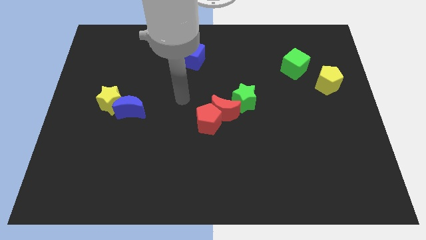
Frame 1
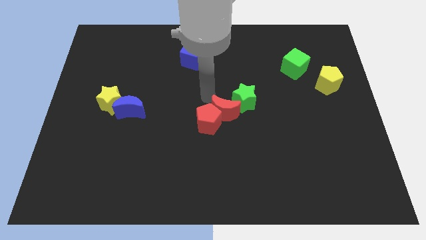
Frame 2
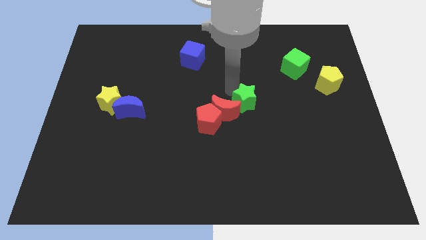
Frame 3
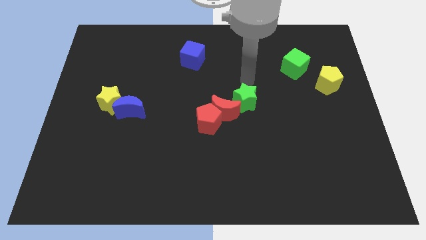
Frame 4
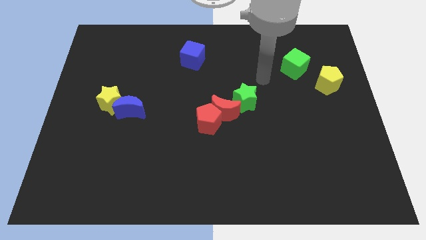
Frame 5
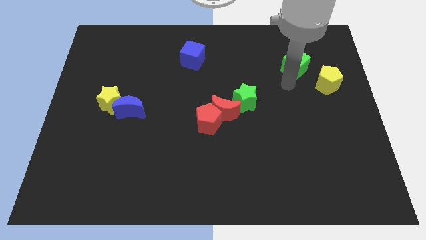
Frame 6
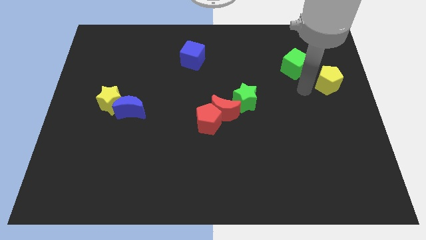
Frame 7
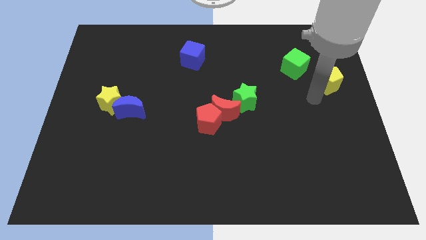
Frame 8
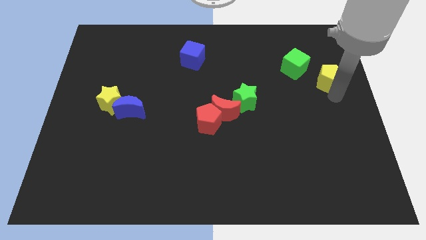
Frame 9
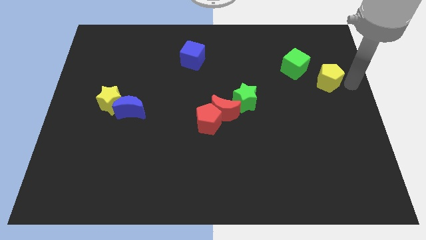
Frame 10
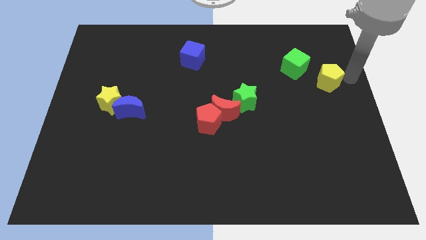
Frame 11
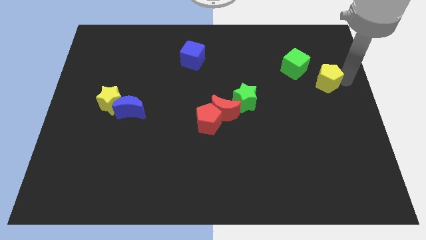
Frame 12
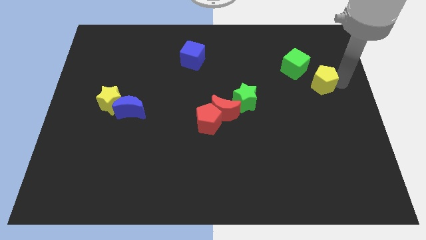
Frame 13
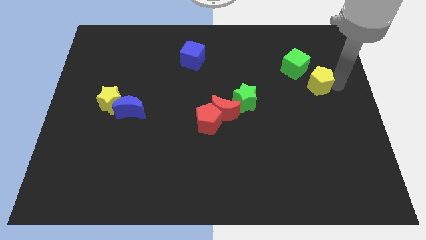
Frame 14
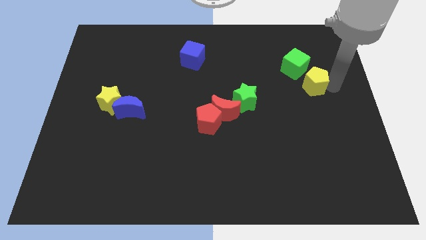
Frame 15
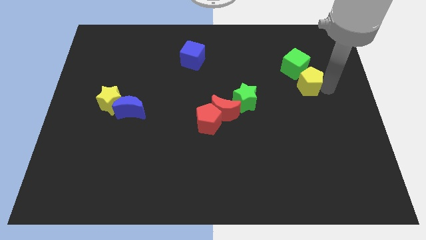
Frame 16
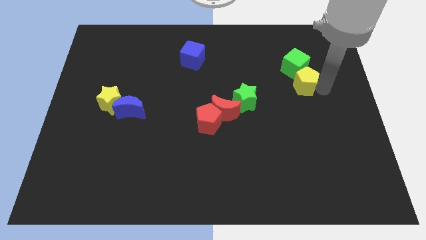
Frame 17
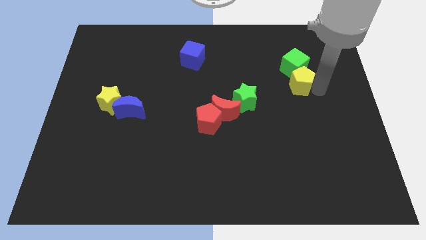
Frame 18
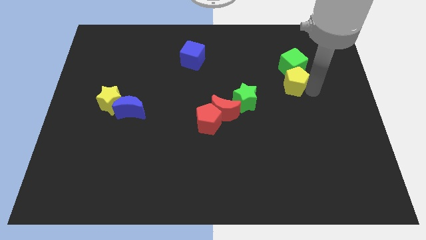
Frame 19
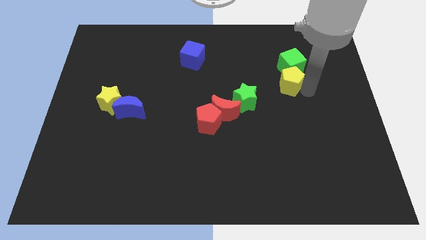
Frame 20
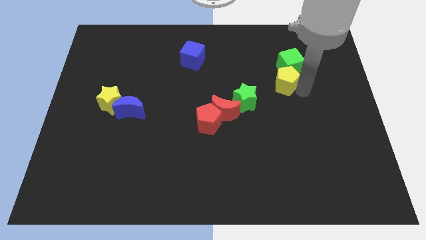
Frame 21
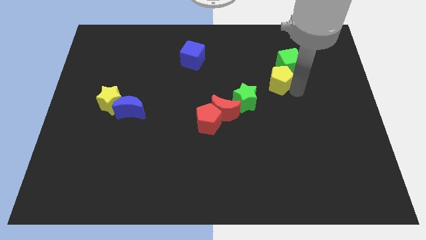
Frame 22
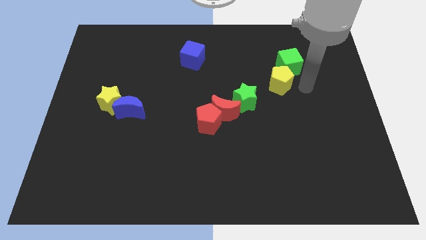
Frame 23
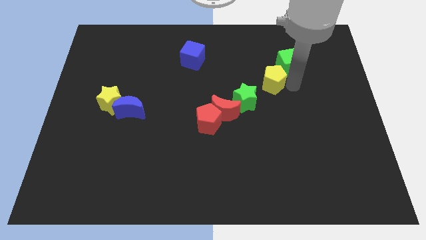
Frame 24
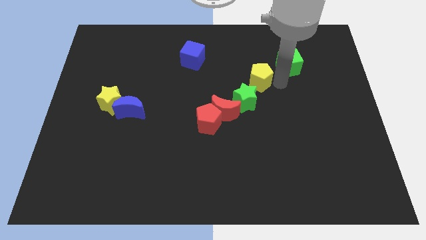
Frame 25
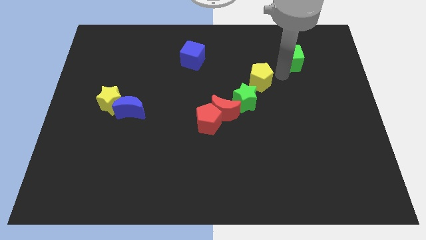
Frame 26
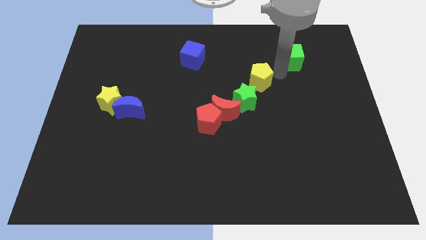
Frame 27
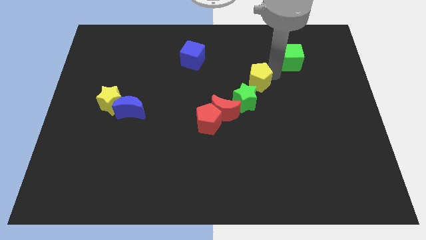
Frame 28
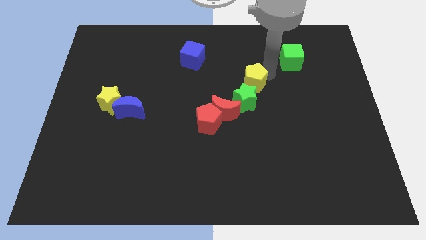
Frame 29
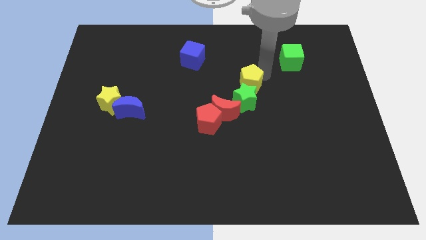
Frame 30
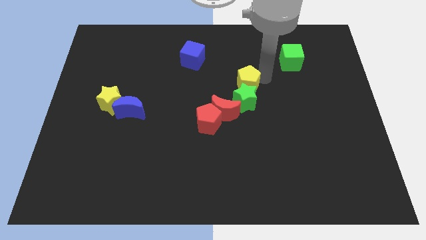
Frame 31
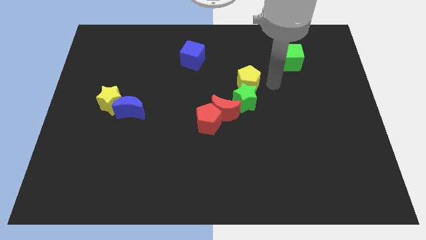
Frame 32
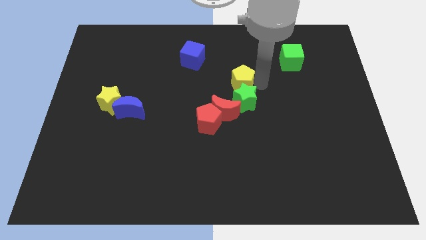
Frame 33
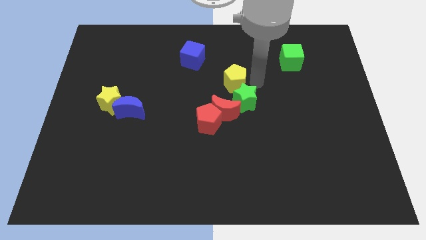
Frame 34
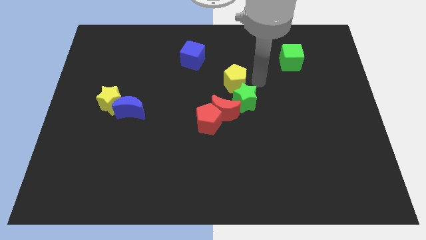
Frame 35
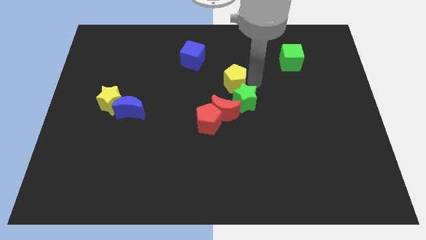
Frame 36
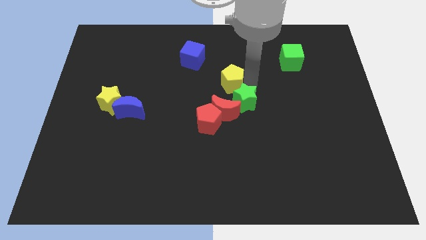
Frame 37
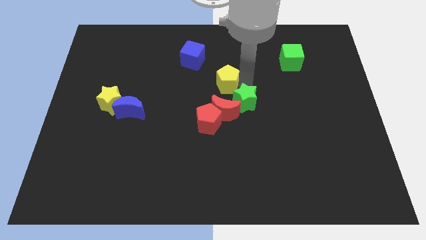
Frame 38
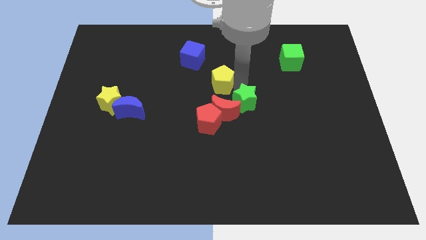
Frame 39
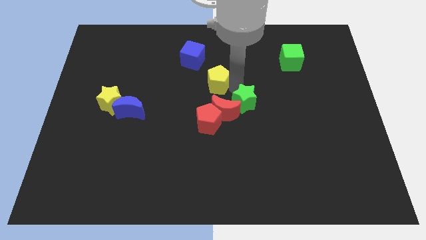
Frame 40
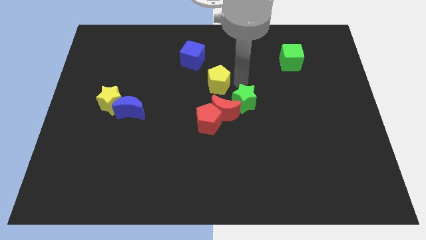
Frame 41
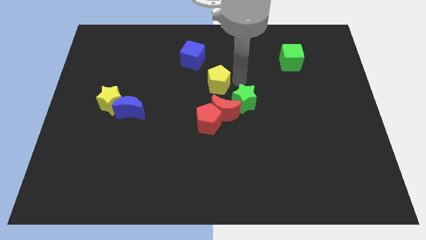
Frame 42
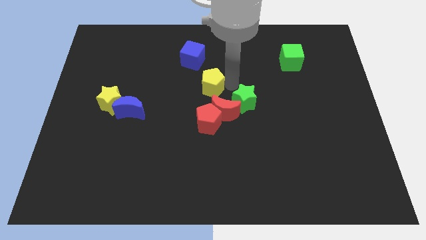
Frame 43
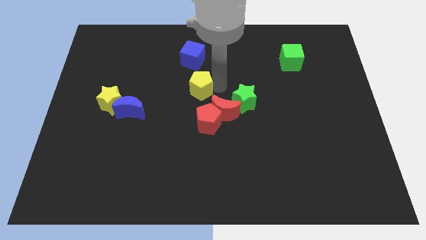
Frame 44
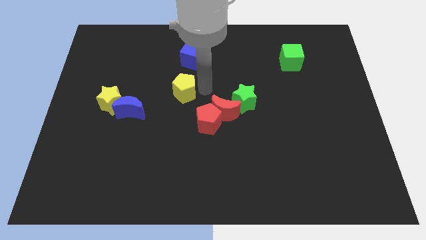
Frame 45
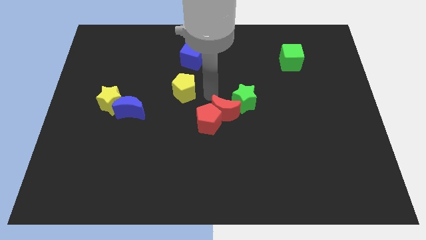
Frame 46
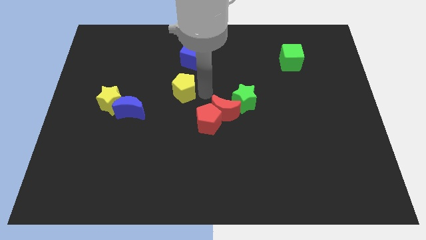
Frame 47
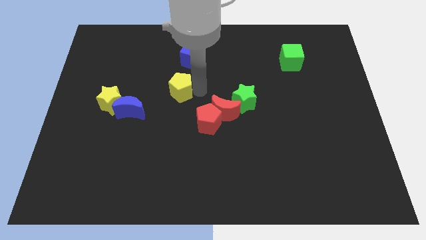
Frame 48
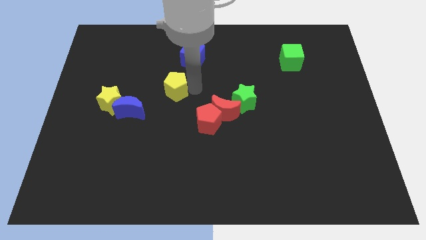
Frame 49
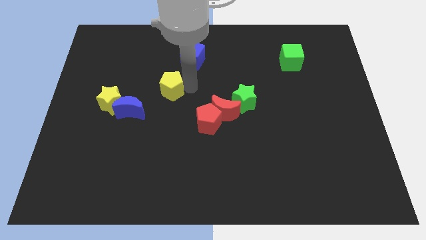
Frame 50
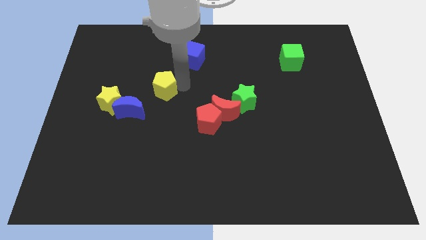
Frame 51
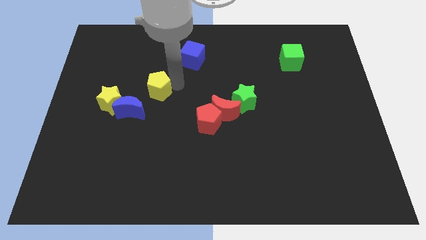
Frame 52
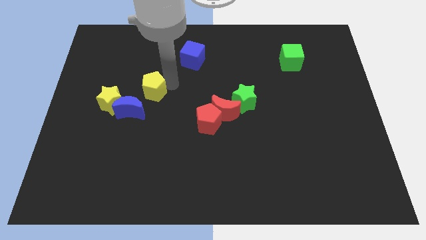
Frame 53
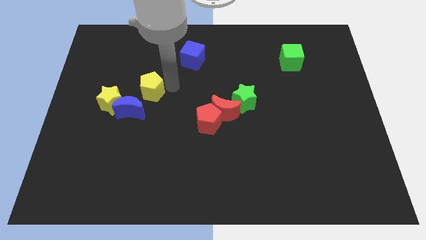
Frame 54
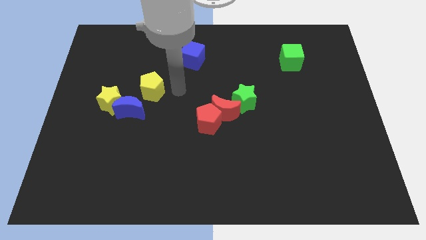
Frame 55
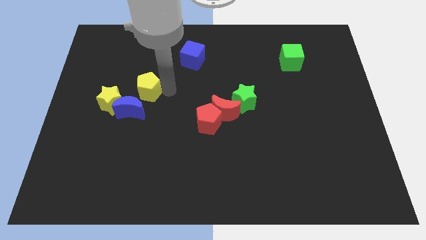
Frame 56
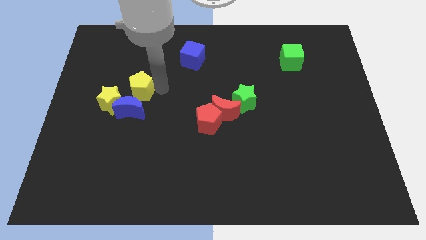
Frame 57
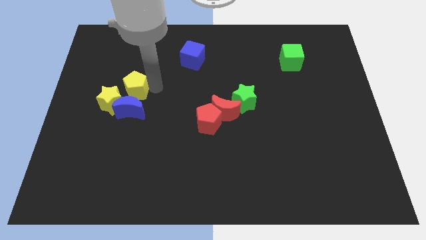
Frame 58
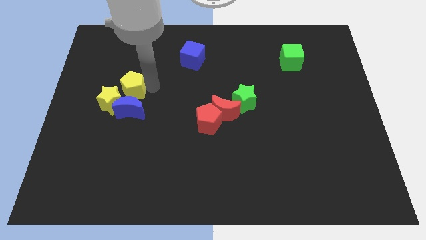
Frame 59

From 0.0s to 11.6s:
move the yellow pentagon to the yellow star
